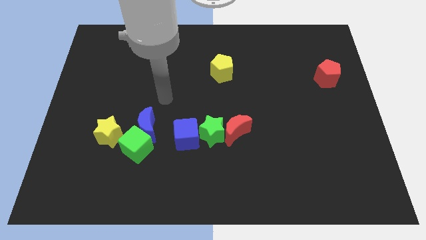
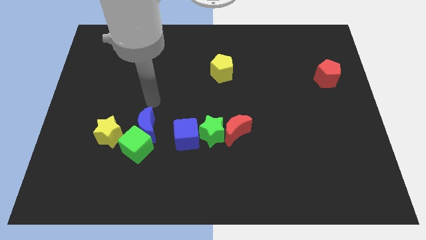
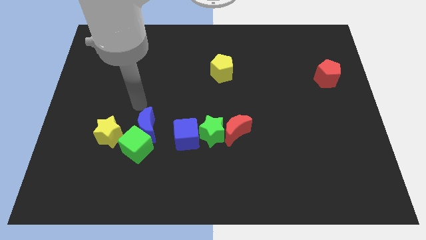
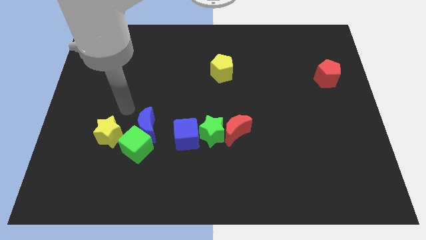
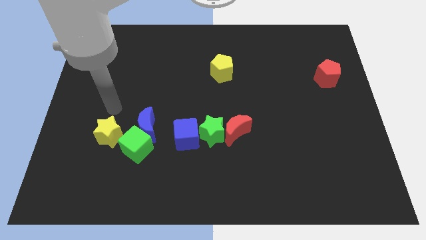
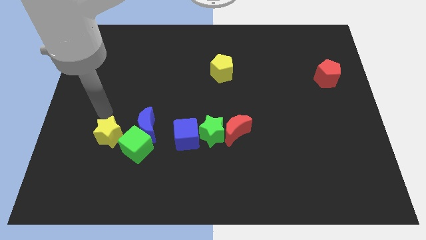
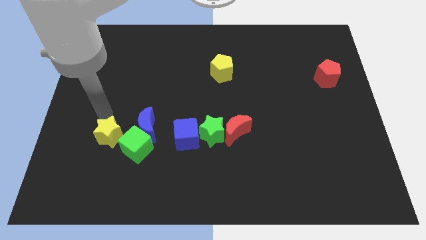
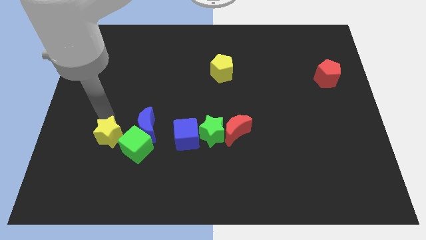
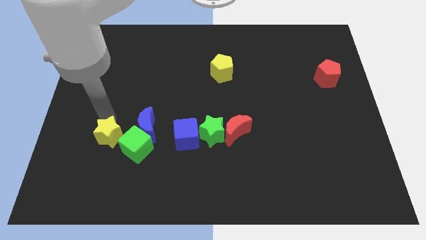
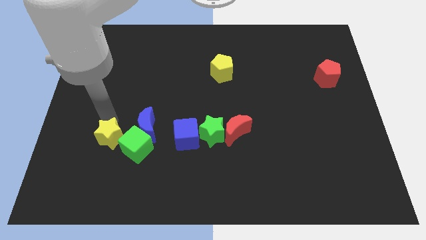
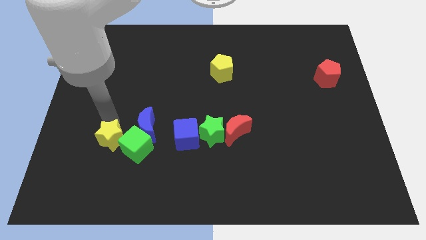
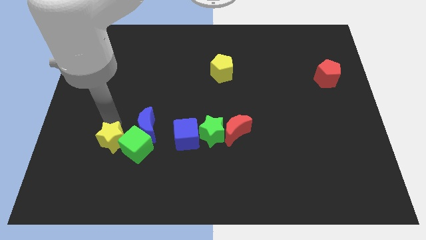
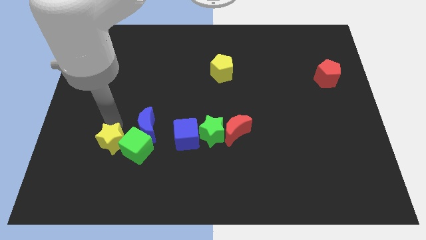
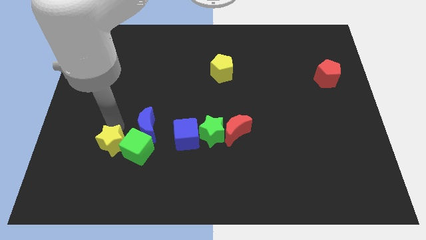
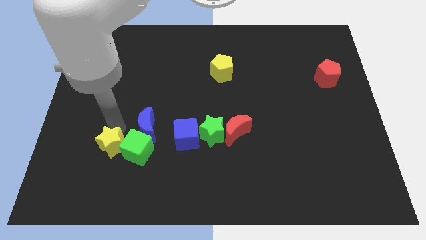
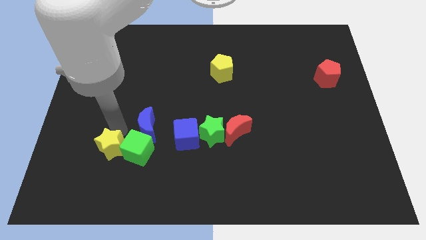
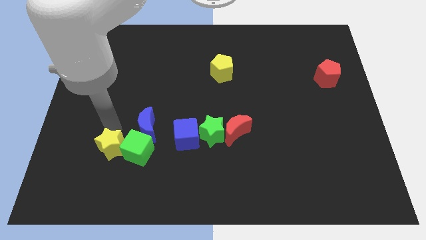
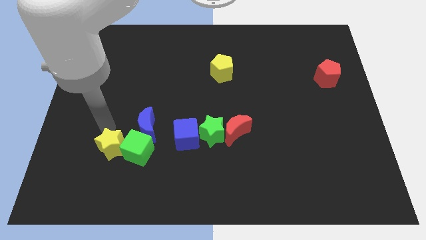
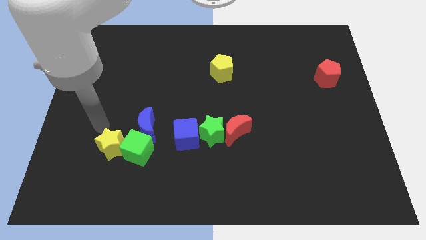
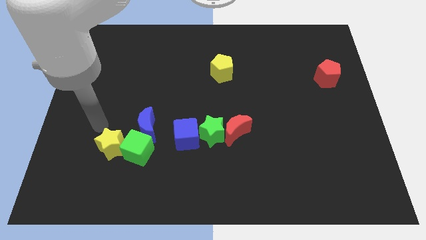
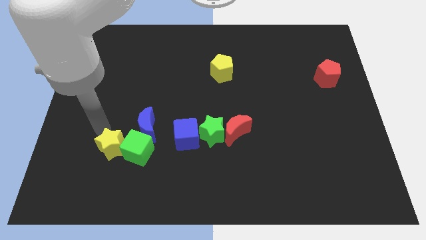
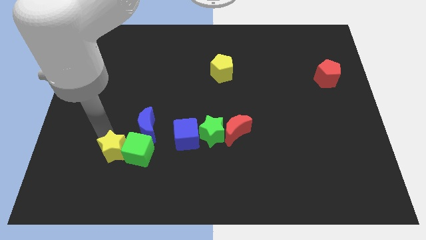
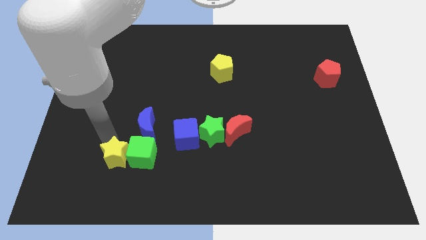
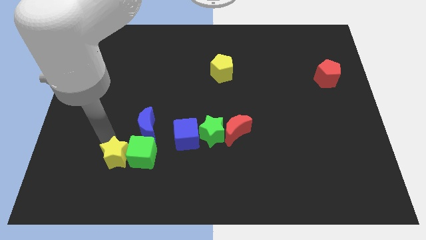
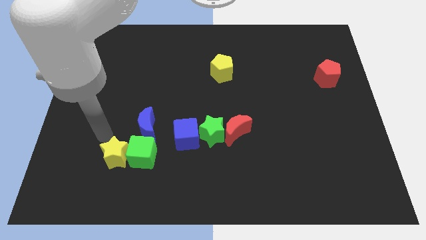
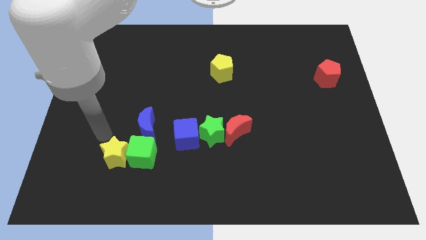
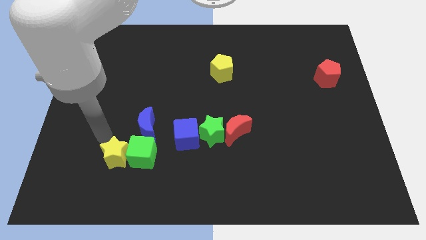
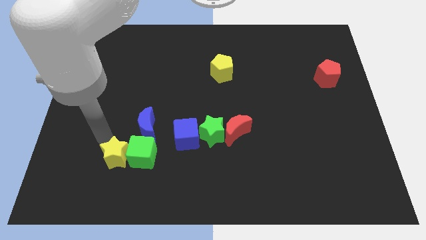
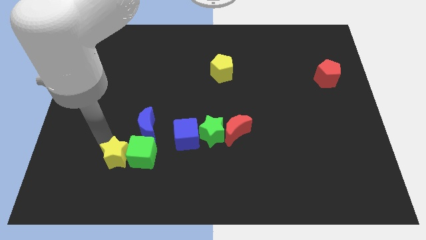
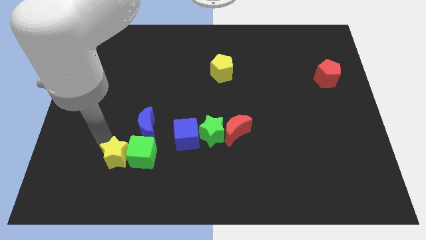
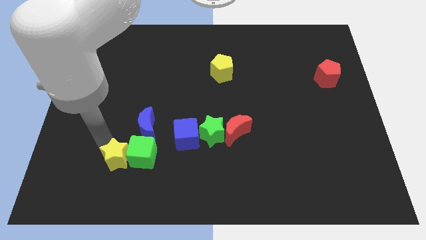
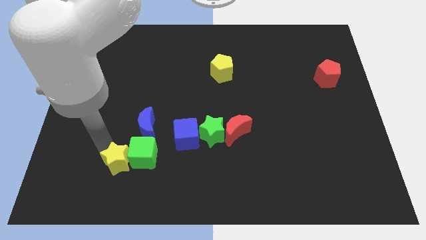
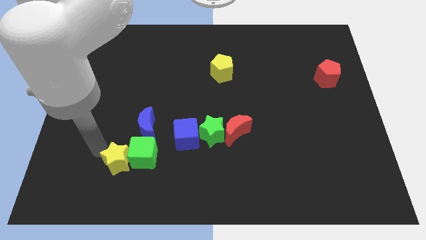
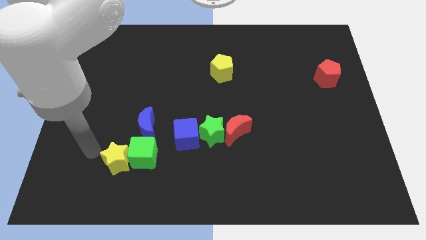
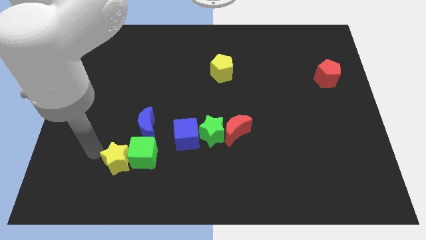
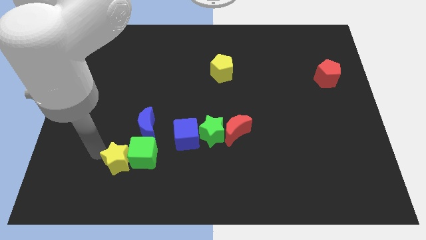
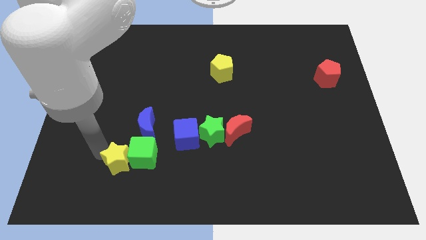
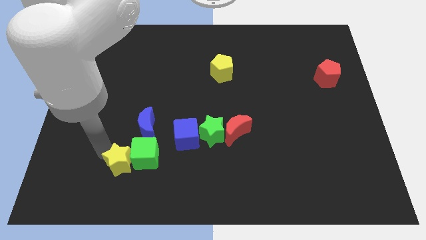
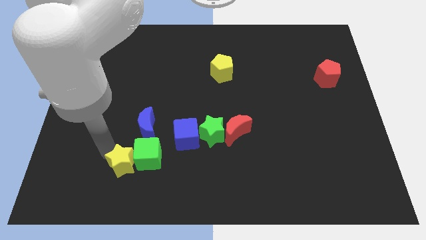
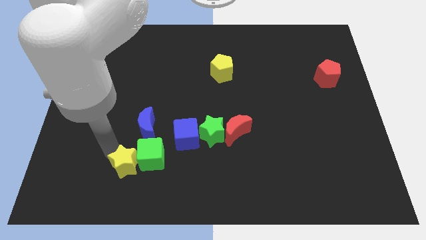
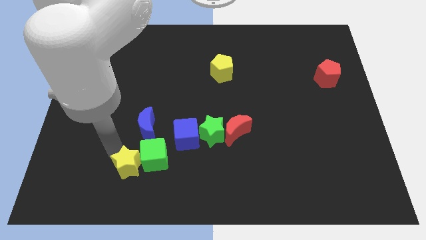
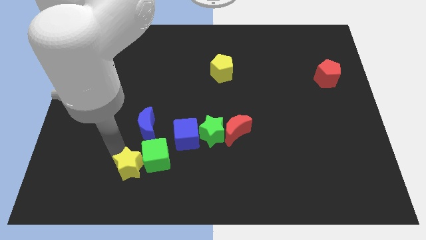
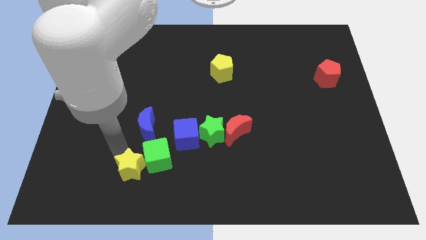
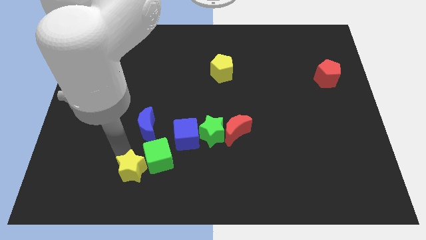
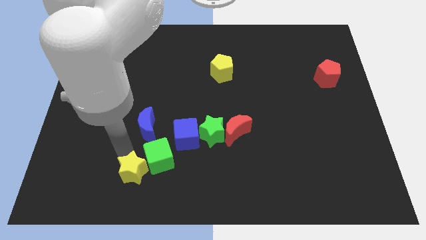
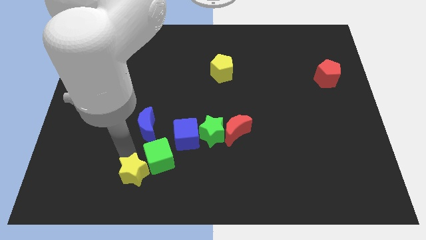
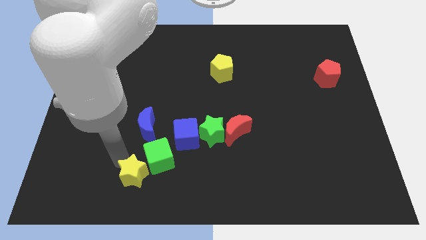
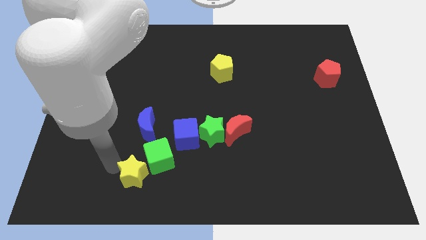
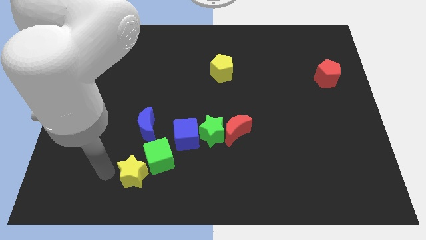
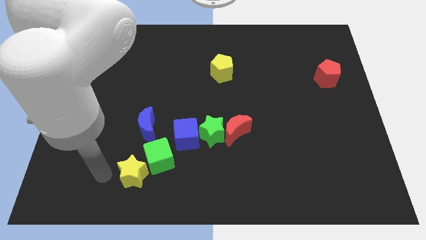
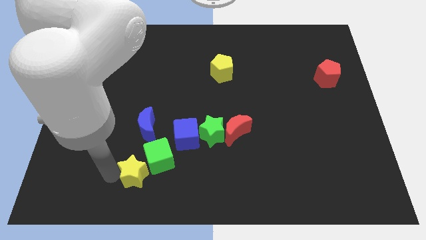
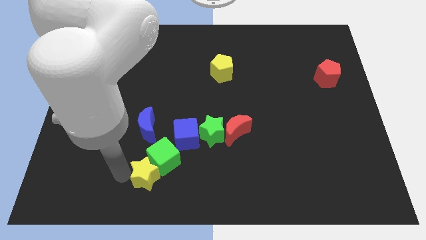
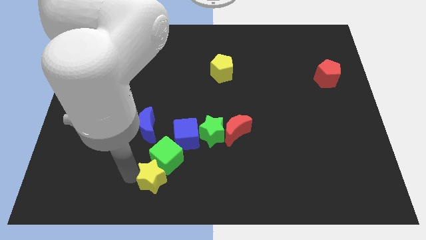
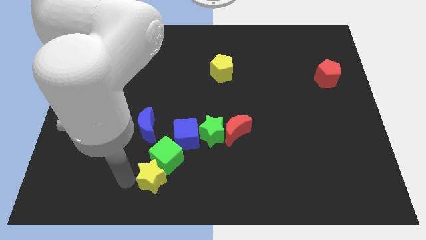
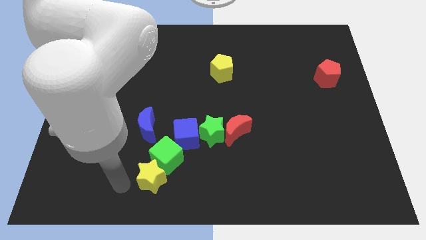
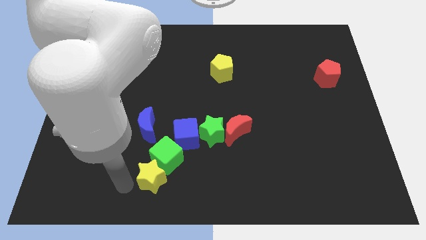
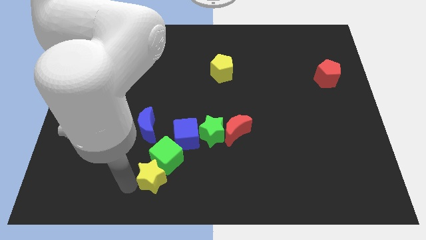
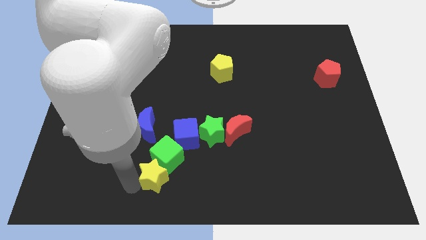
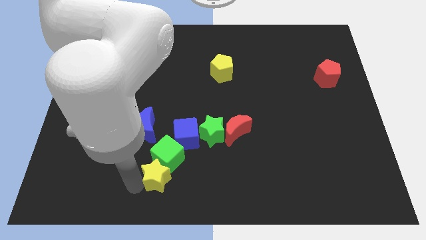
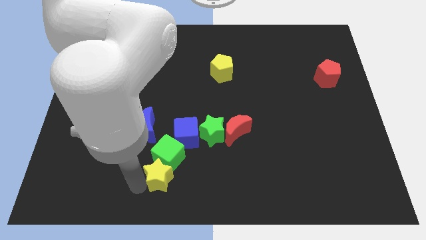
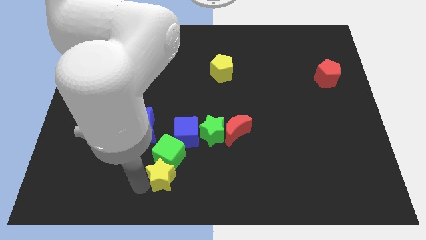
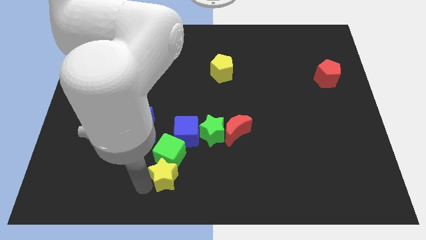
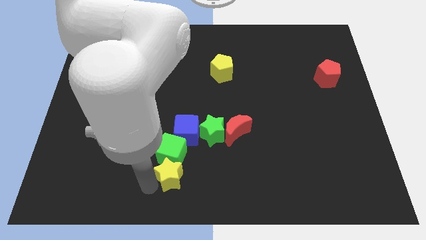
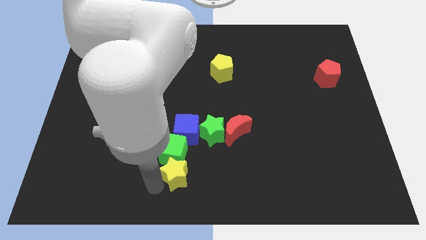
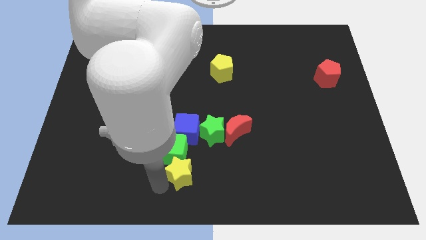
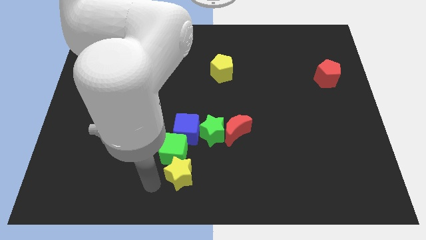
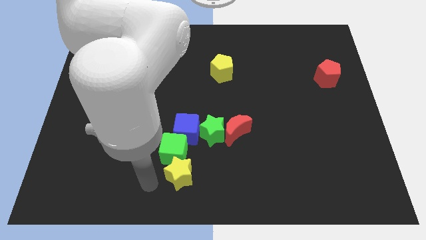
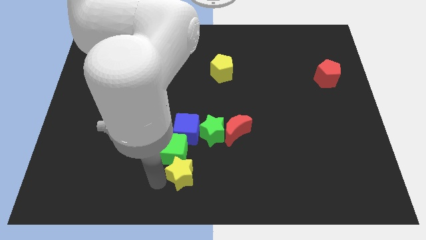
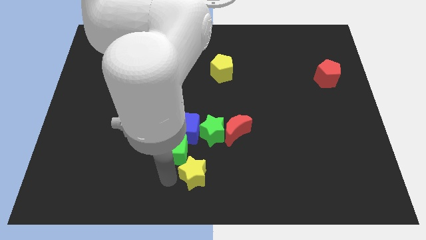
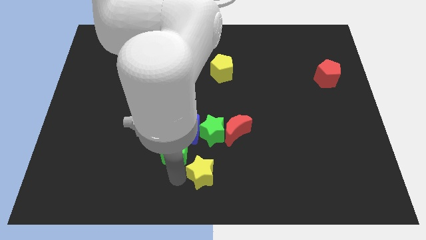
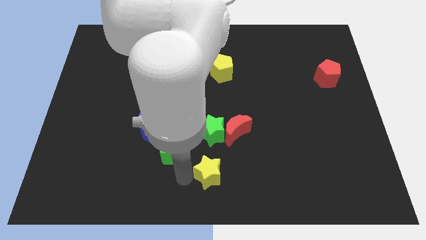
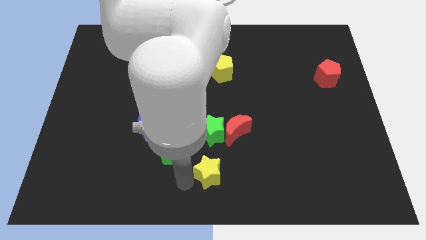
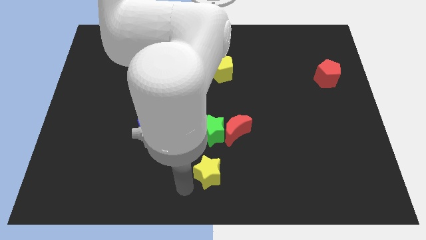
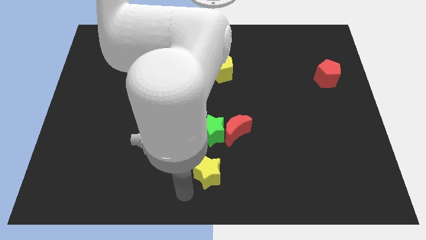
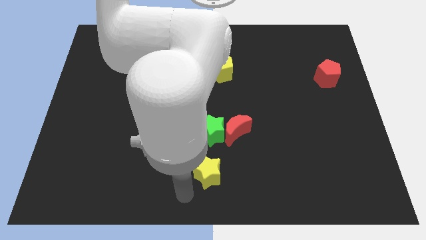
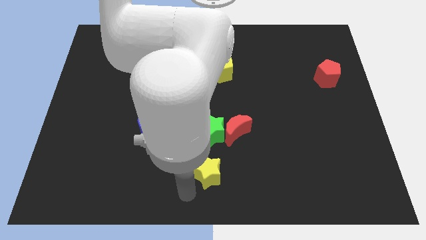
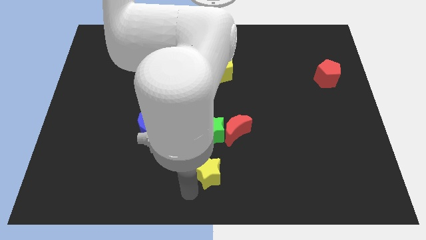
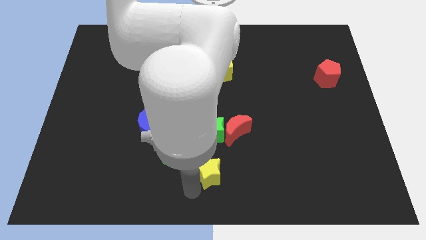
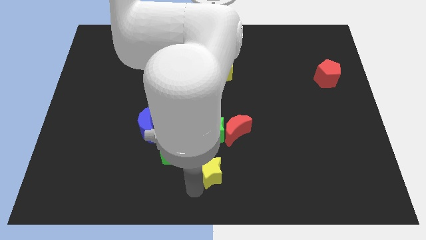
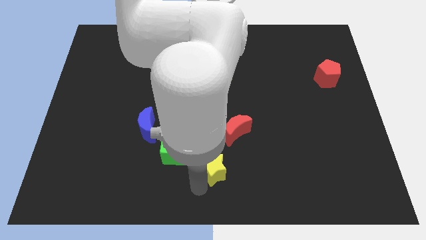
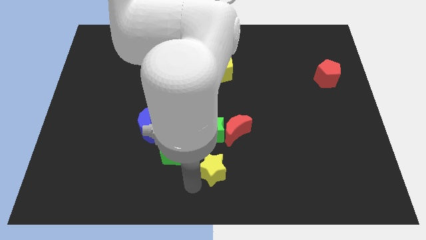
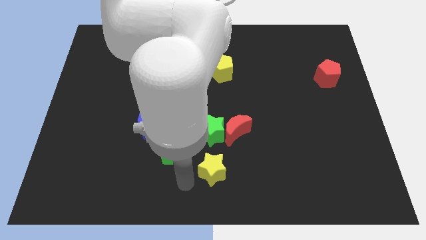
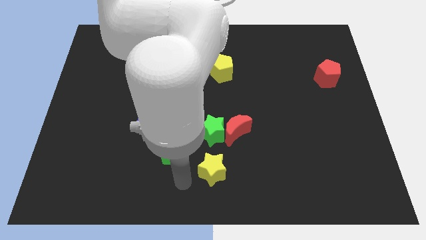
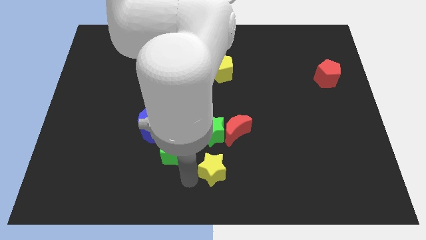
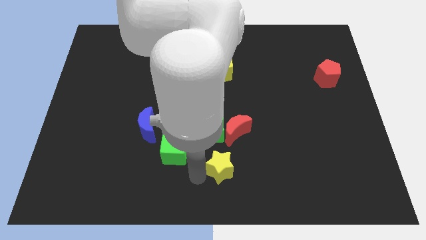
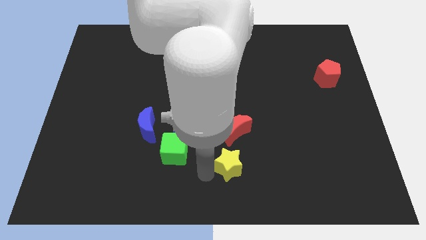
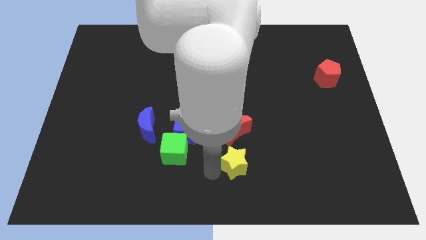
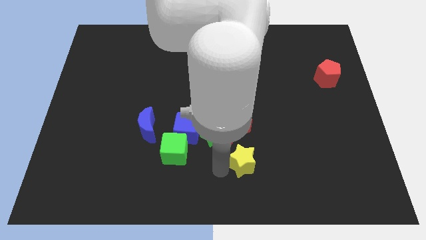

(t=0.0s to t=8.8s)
put the yellow star to the bottom right side of the red moon
